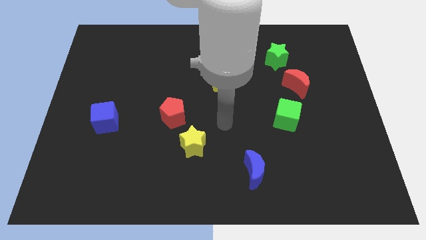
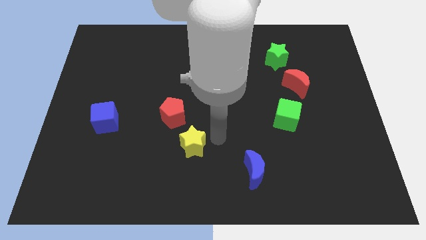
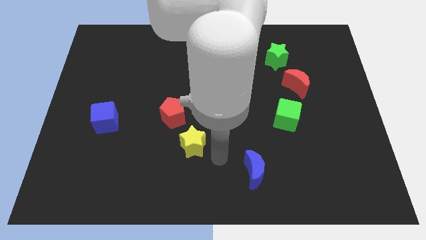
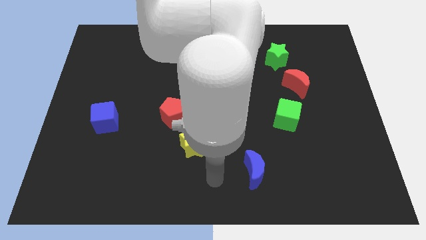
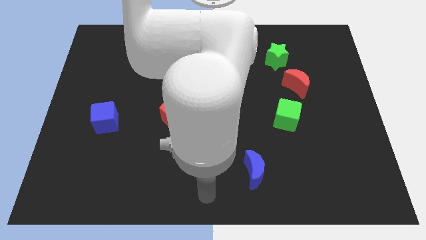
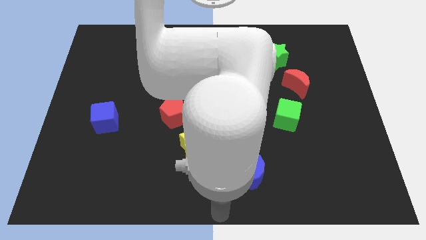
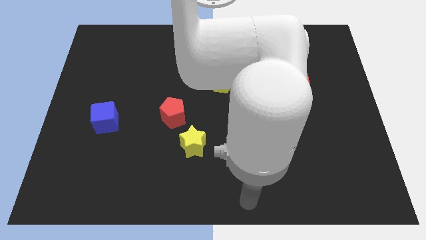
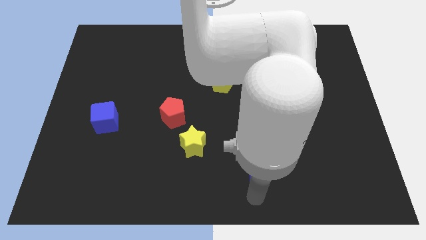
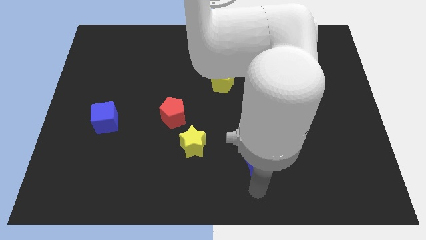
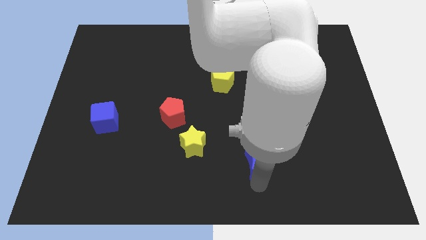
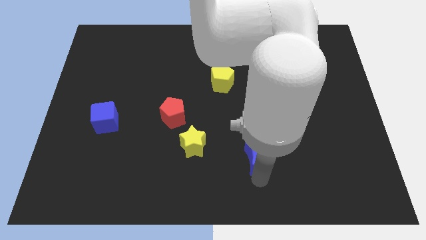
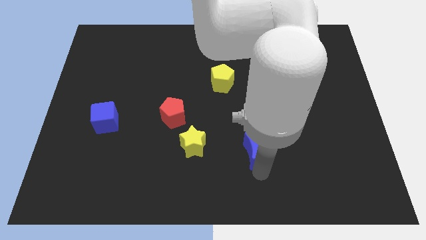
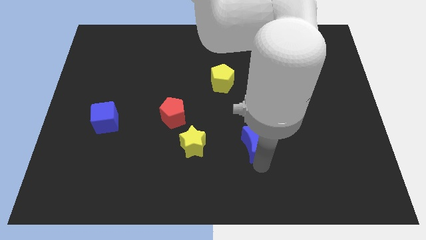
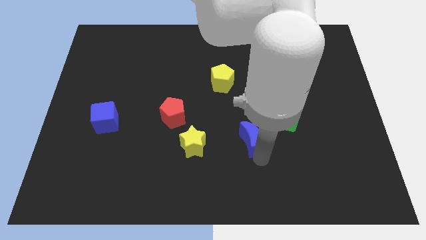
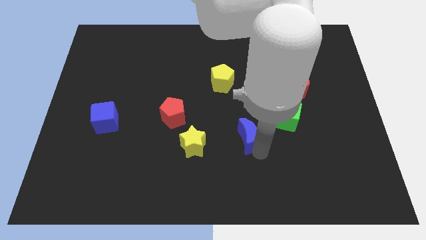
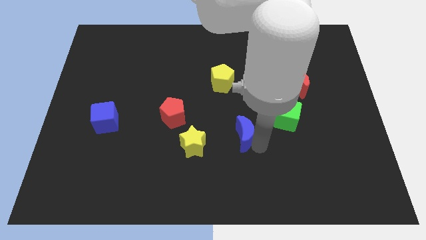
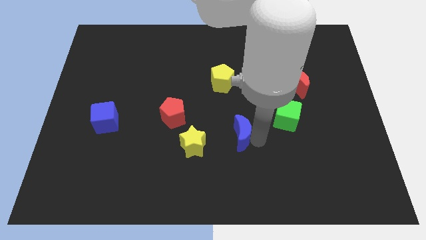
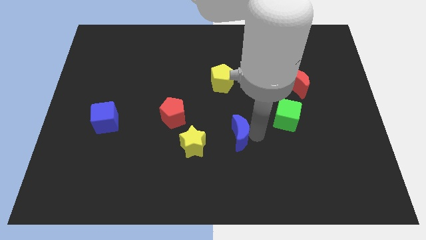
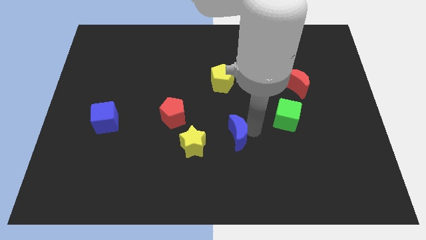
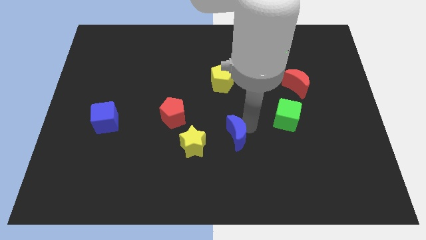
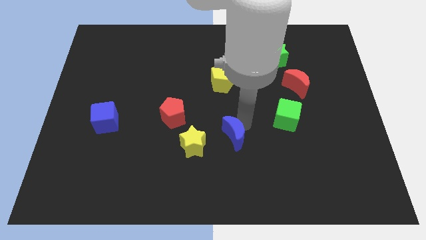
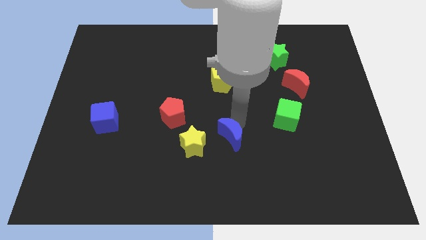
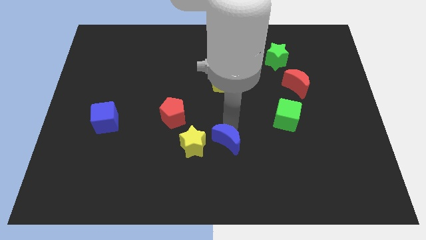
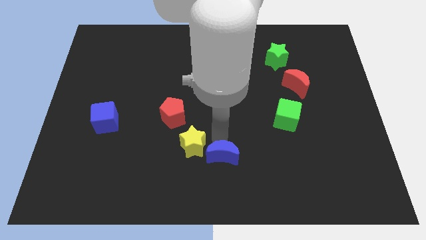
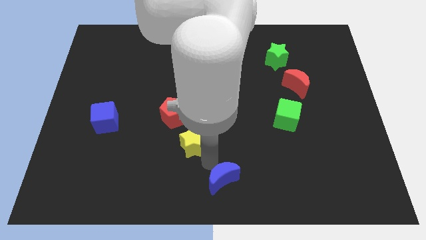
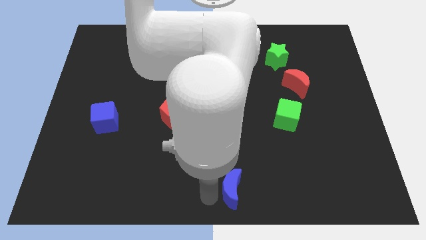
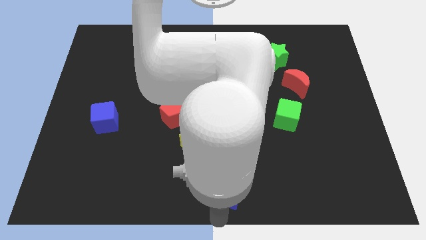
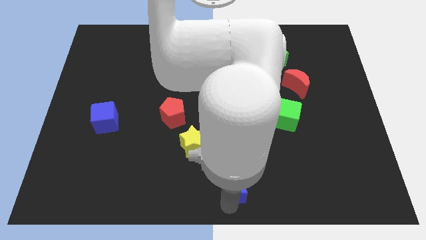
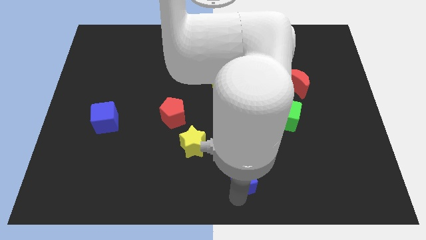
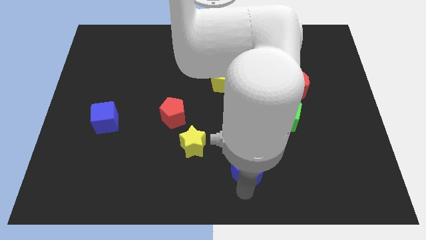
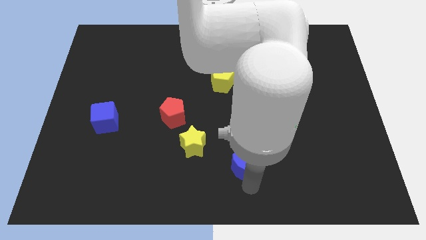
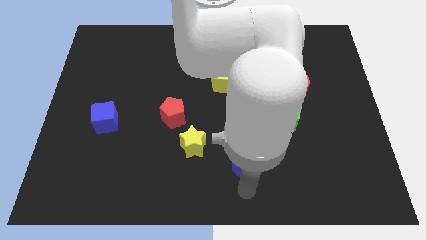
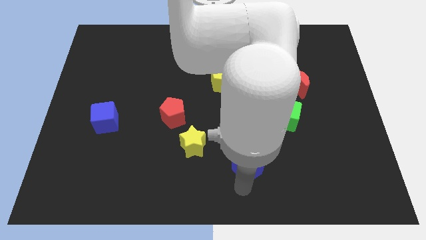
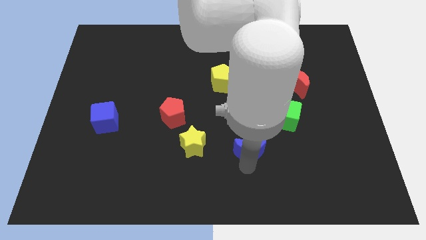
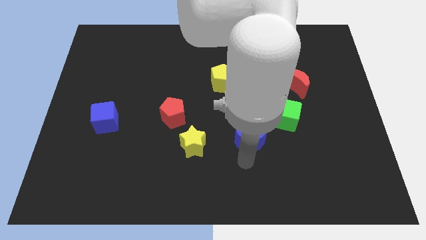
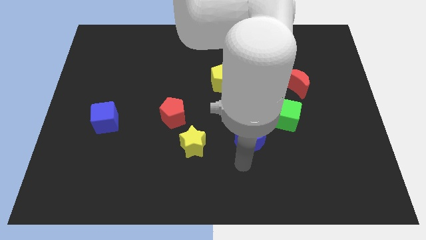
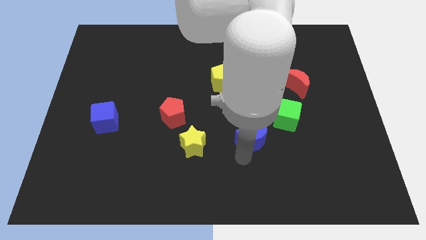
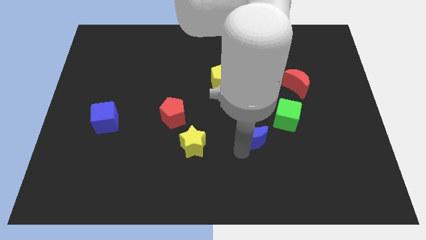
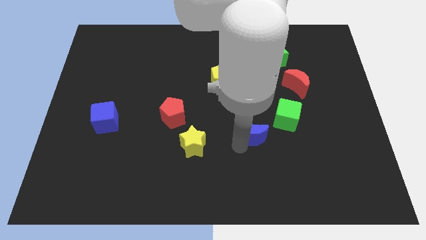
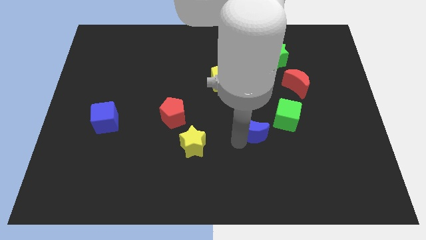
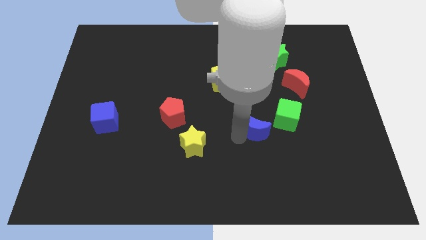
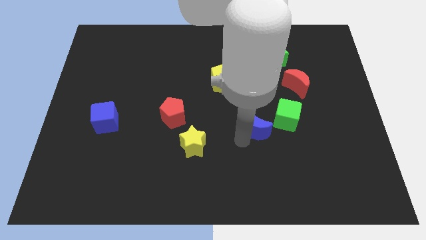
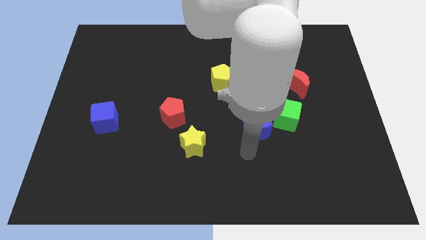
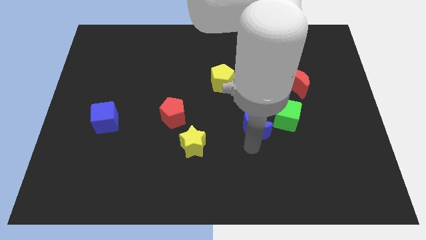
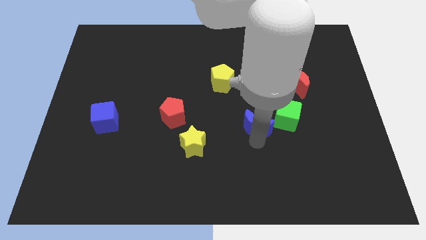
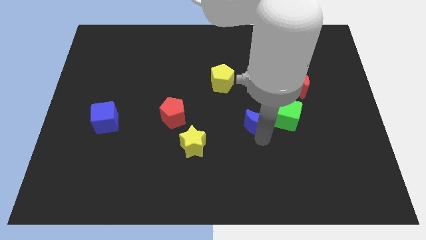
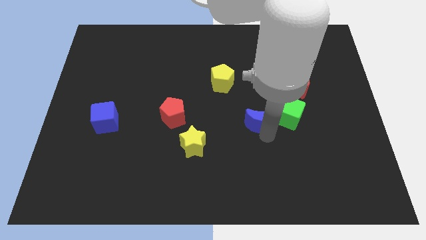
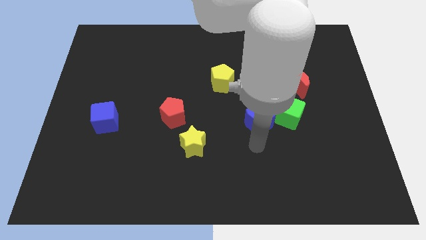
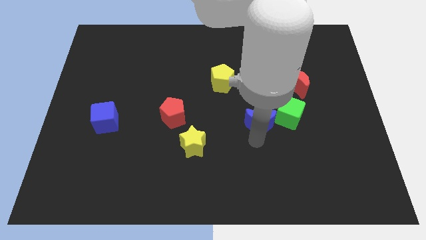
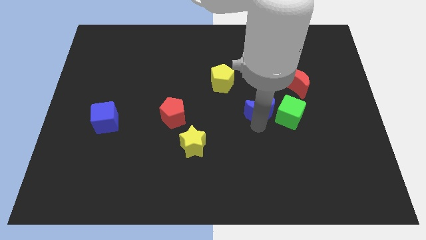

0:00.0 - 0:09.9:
push the blue moon to the top left side of the green cube

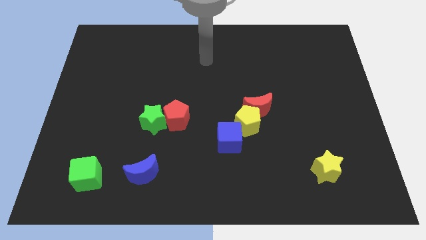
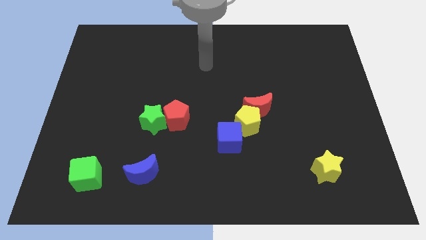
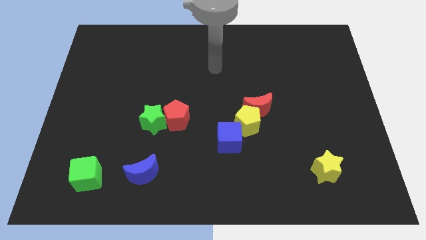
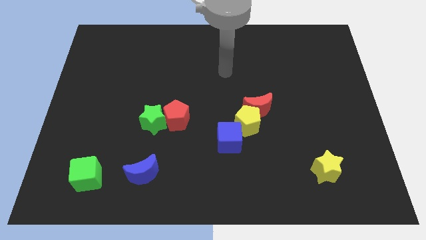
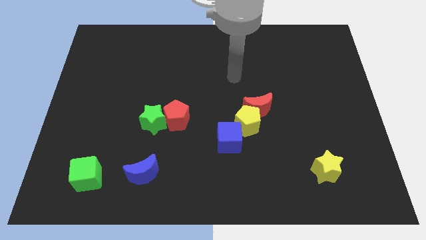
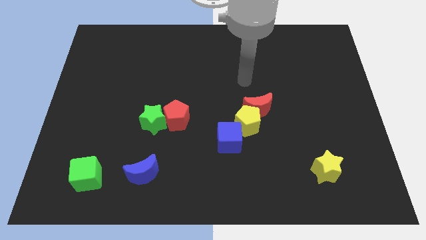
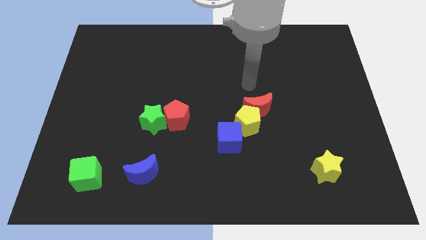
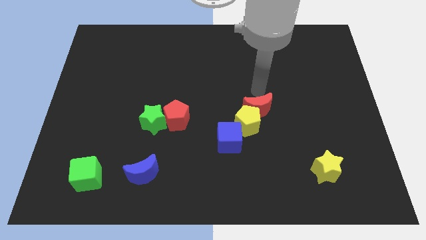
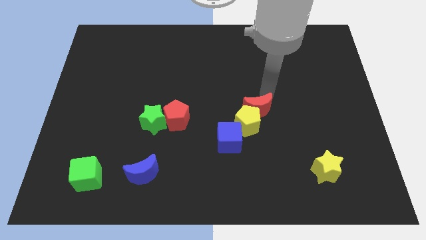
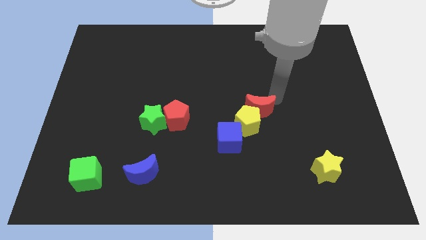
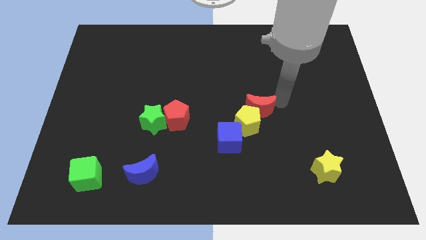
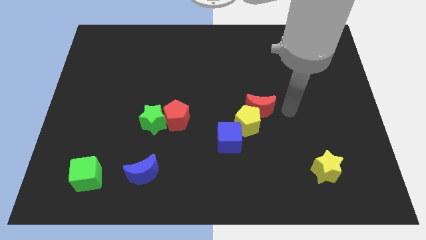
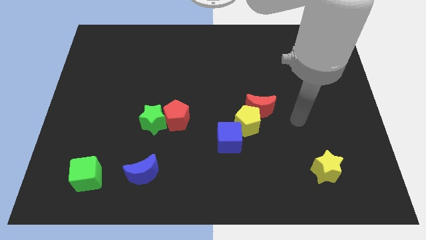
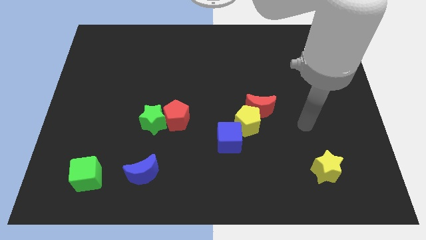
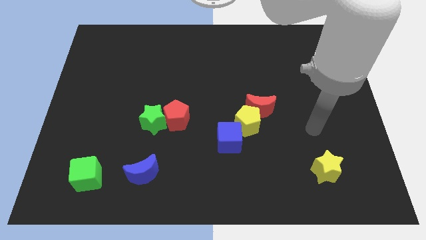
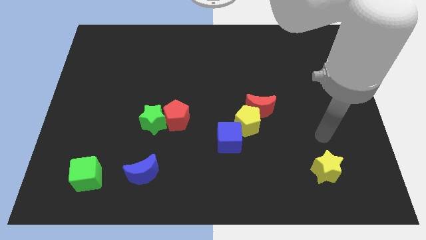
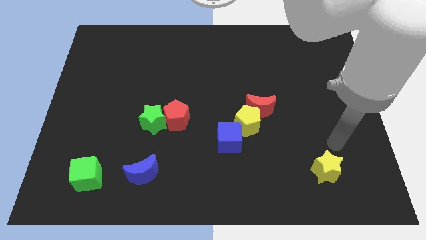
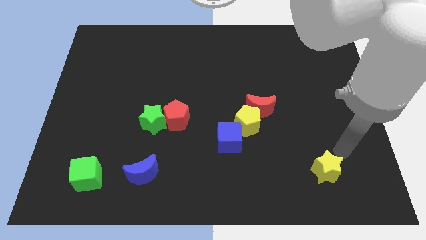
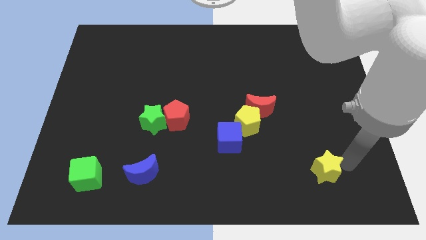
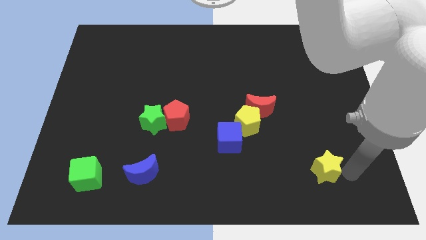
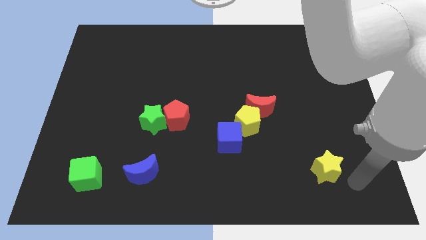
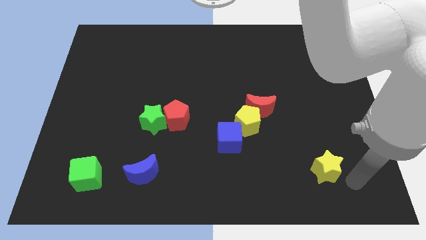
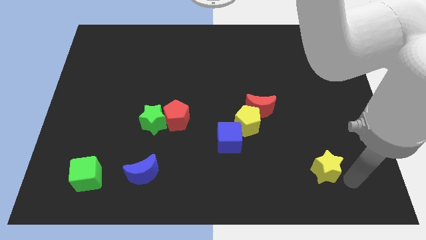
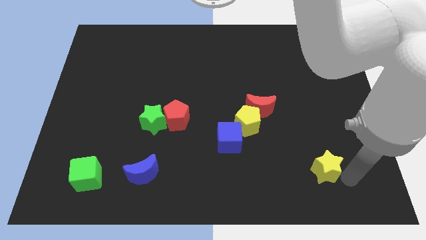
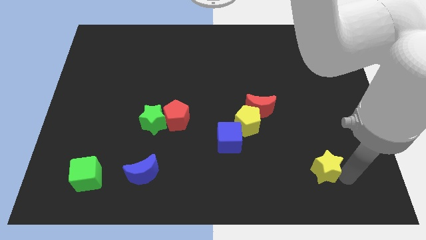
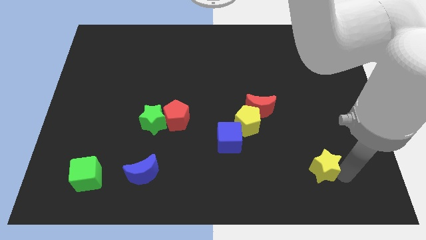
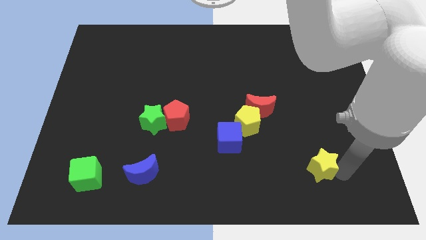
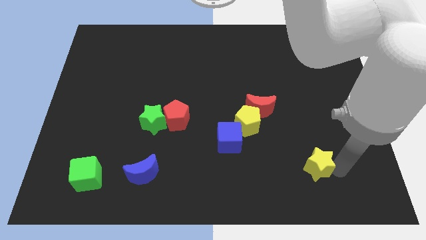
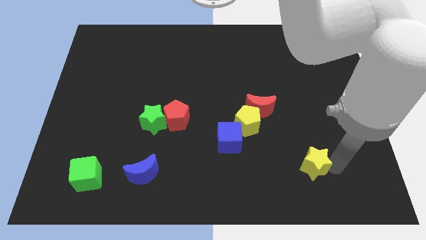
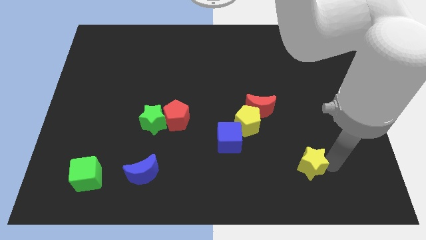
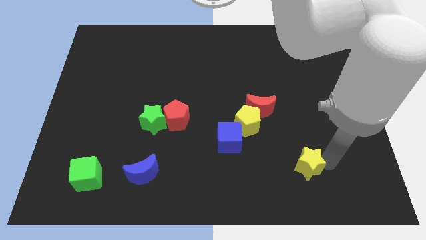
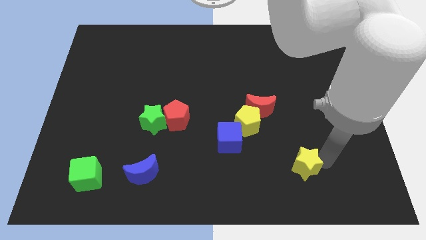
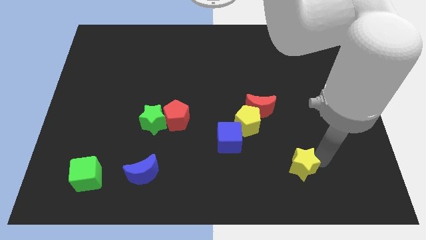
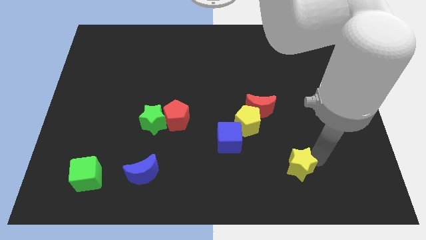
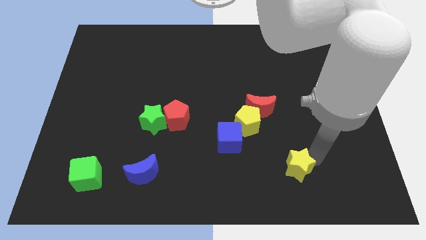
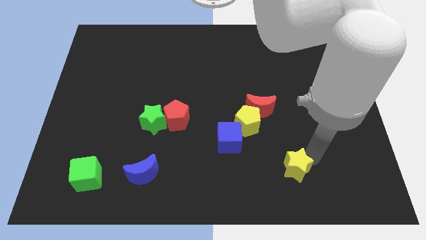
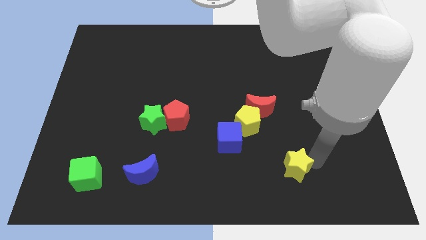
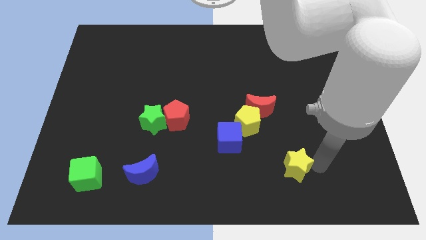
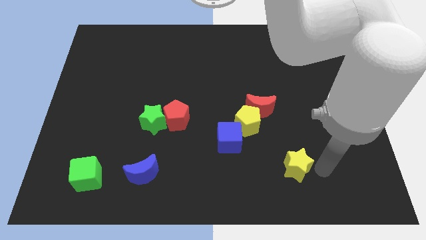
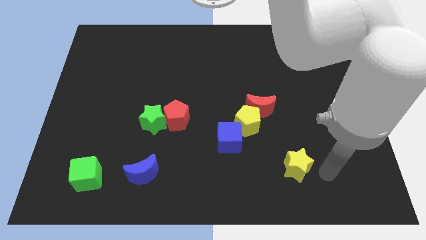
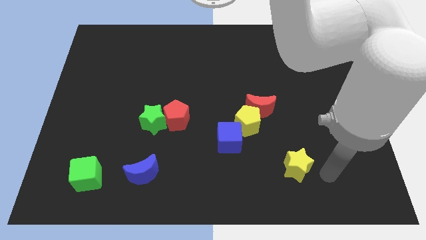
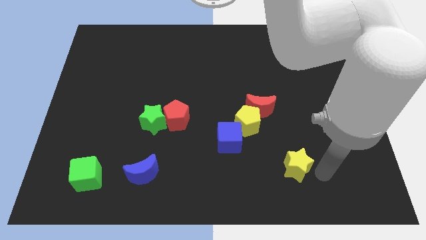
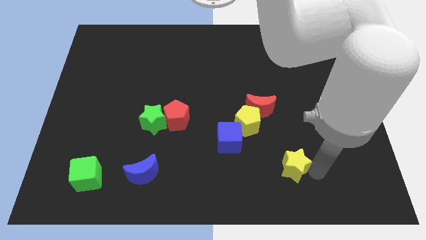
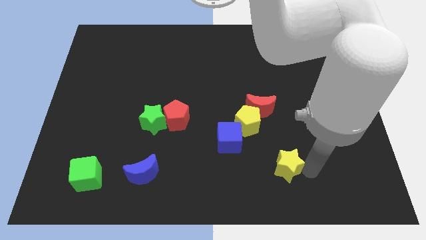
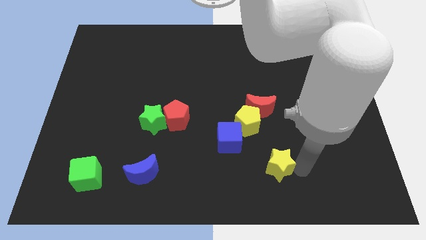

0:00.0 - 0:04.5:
put the yellow star diagonally down and to the right of the blue cube
